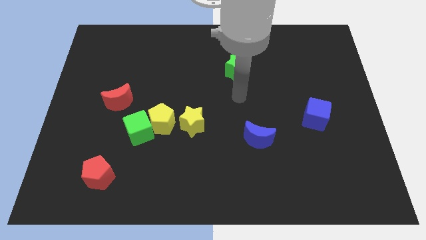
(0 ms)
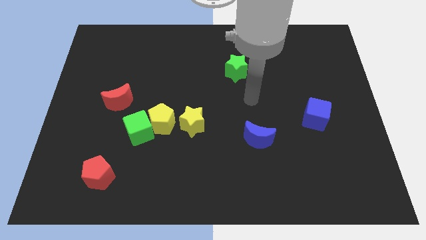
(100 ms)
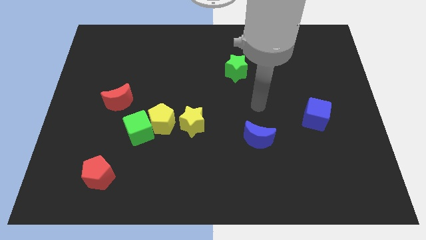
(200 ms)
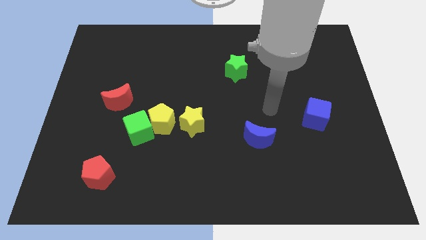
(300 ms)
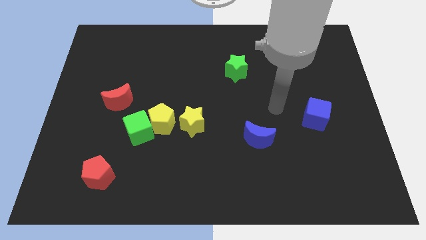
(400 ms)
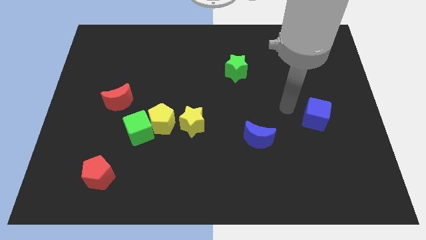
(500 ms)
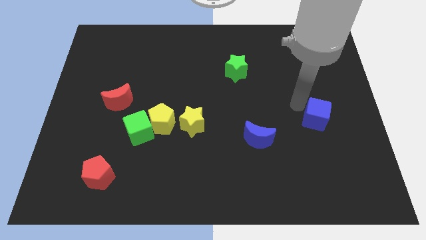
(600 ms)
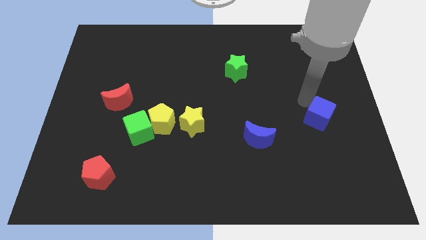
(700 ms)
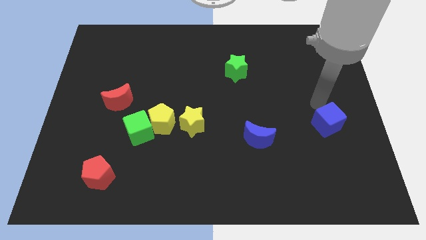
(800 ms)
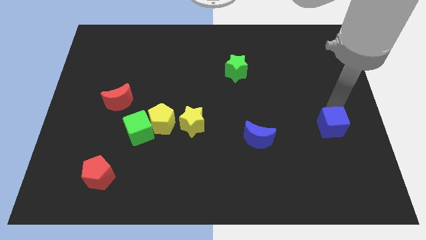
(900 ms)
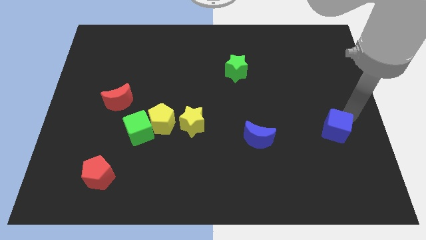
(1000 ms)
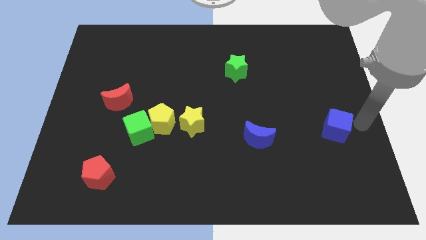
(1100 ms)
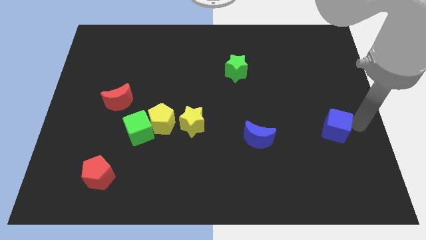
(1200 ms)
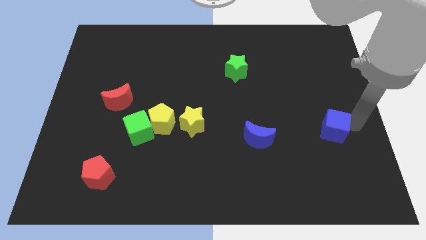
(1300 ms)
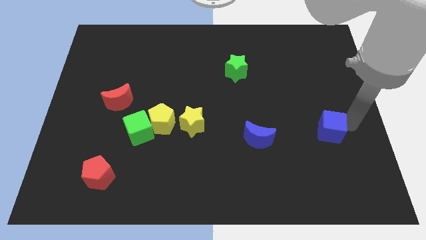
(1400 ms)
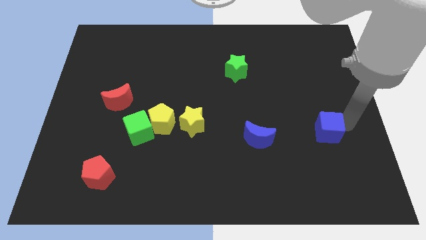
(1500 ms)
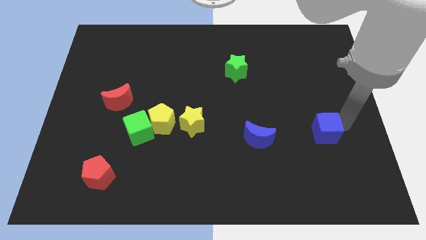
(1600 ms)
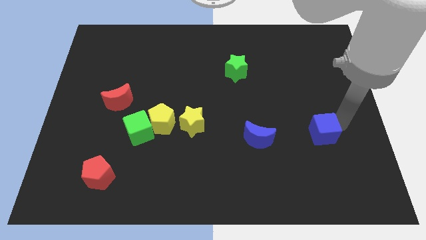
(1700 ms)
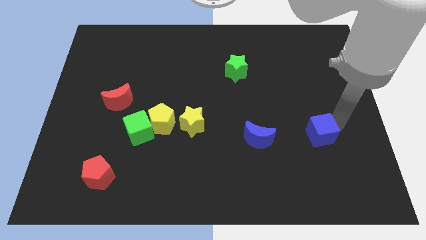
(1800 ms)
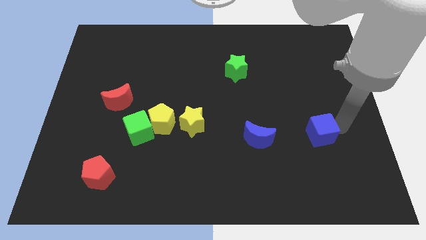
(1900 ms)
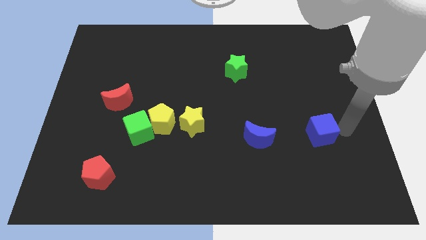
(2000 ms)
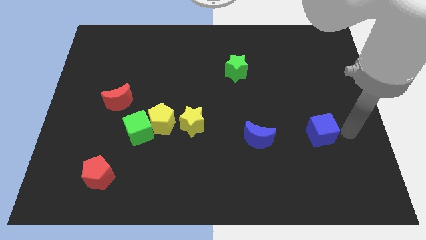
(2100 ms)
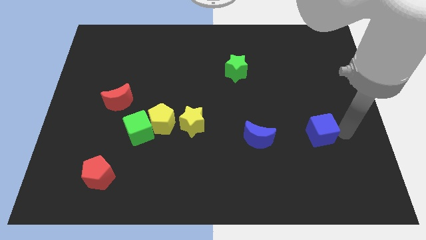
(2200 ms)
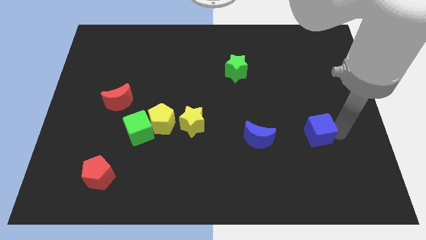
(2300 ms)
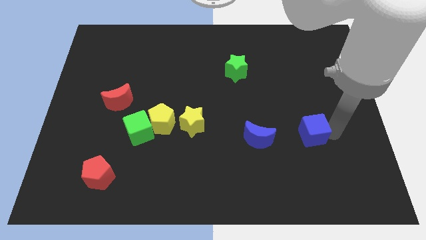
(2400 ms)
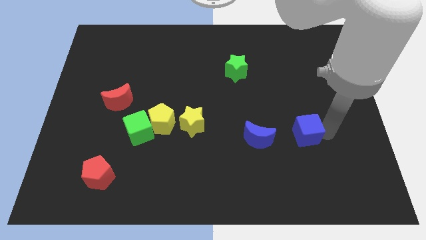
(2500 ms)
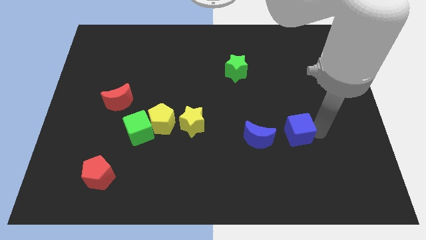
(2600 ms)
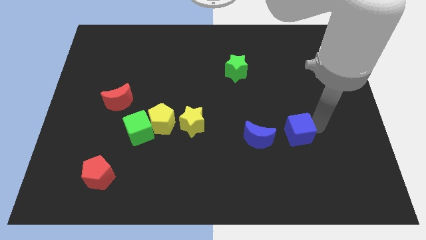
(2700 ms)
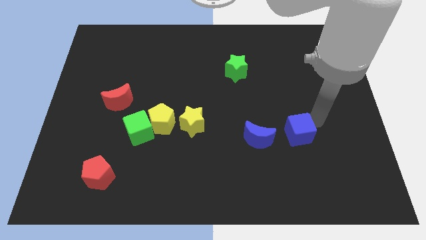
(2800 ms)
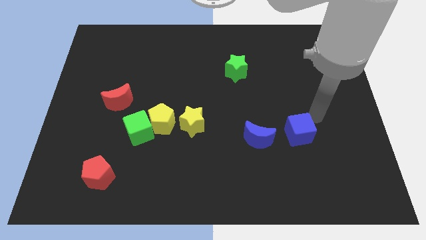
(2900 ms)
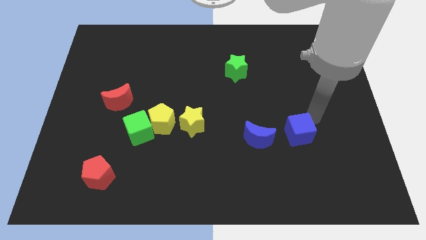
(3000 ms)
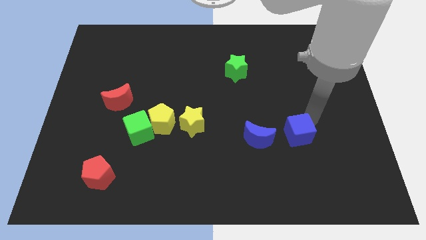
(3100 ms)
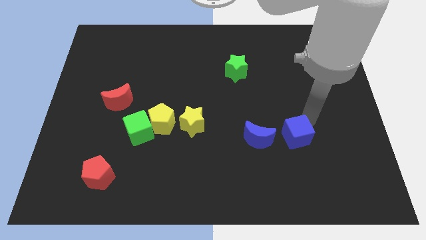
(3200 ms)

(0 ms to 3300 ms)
push the blue cube diagonally down and left a bit

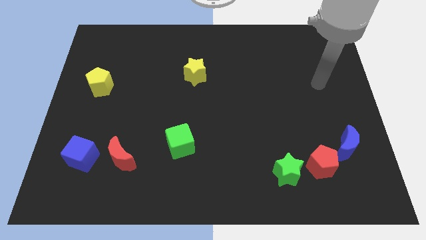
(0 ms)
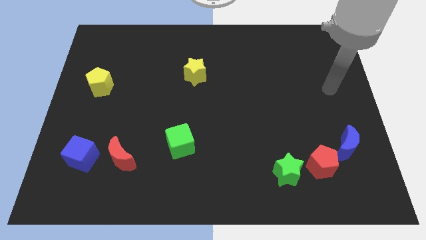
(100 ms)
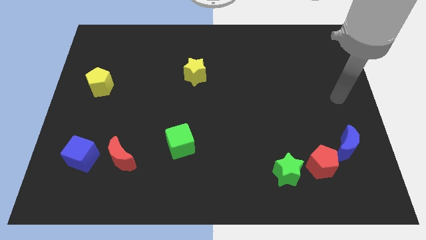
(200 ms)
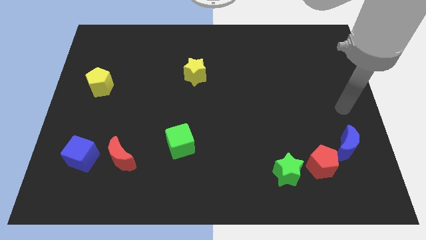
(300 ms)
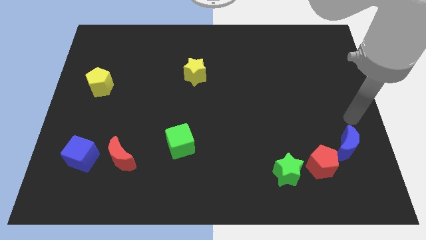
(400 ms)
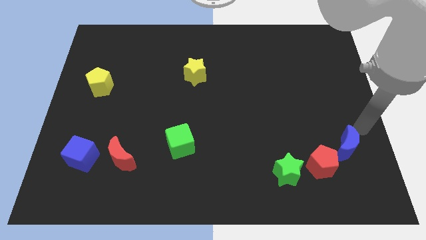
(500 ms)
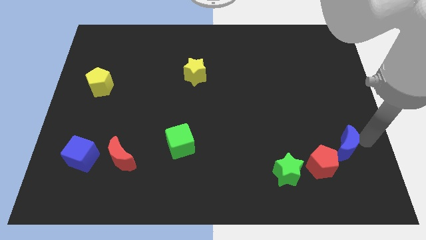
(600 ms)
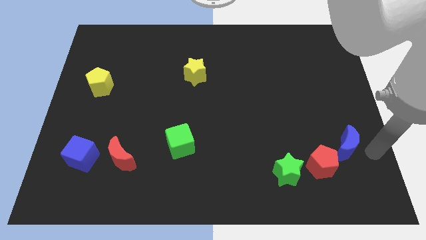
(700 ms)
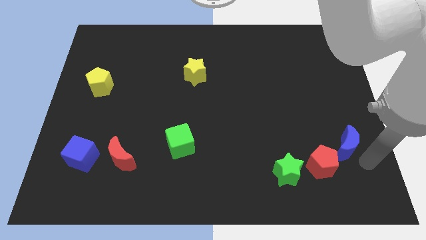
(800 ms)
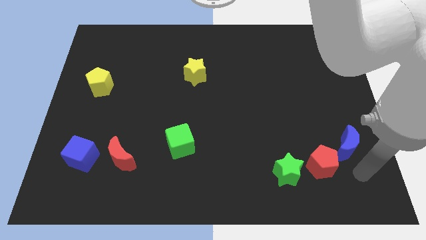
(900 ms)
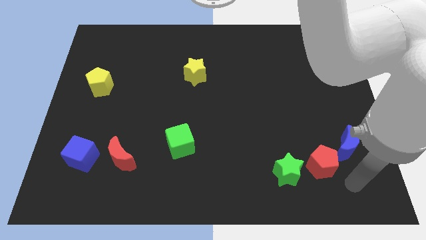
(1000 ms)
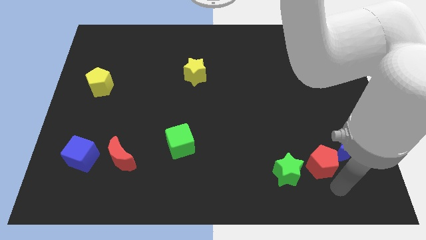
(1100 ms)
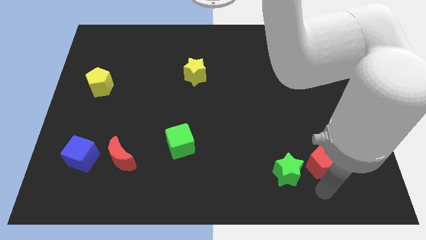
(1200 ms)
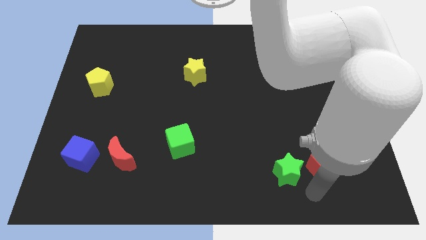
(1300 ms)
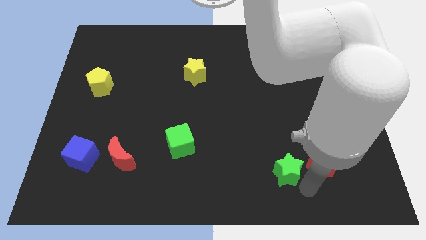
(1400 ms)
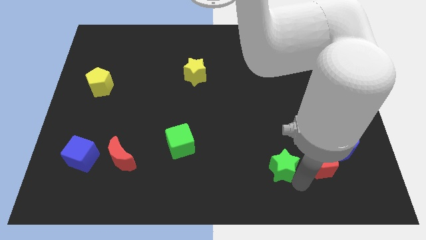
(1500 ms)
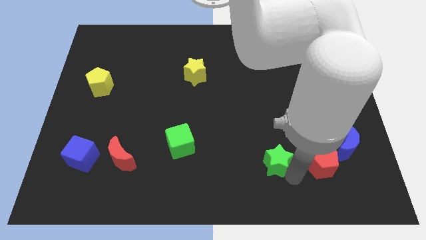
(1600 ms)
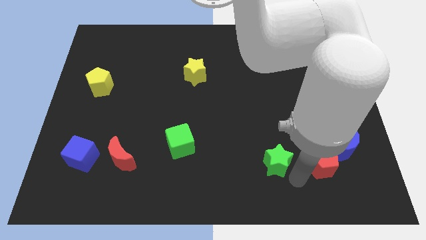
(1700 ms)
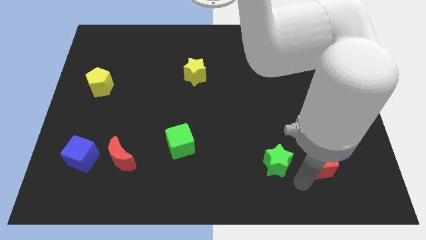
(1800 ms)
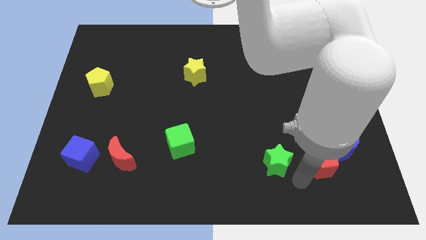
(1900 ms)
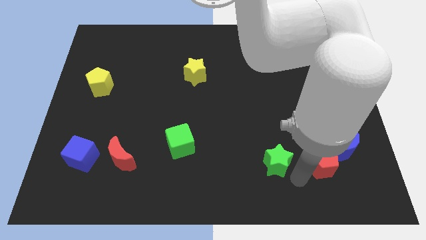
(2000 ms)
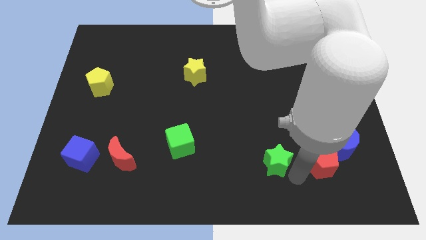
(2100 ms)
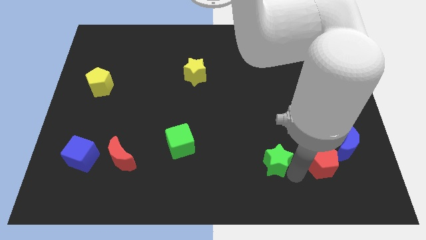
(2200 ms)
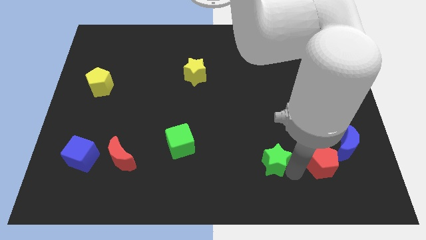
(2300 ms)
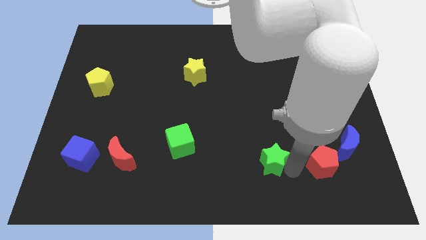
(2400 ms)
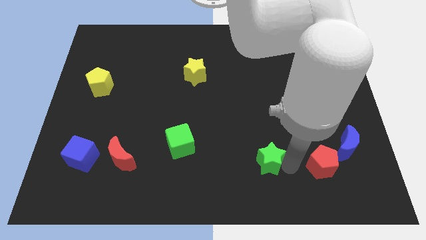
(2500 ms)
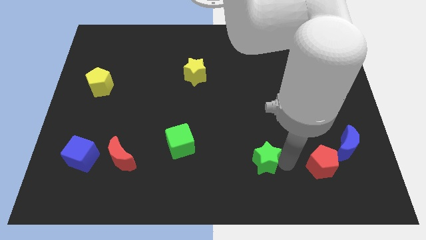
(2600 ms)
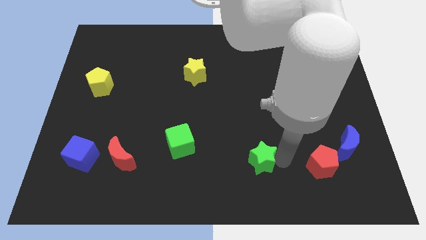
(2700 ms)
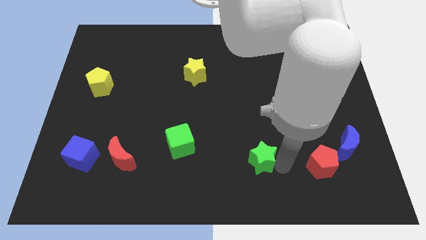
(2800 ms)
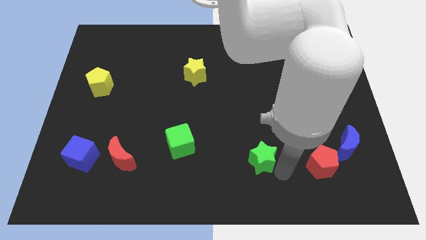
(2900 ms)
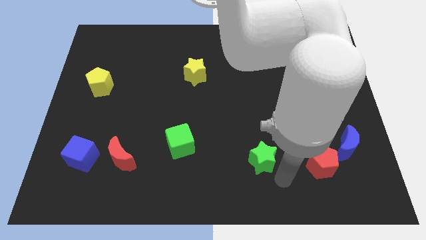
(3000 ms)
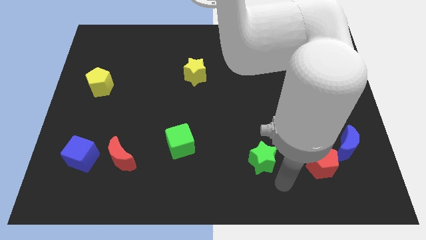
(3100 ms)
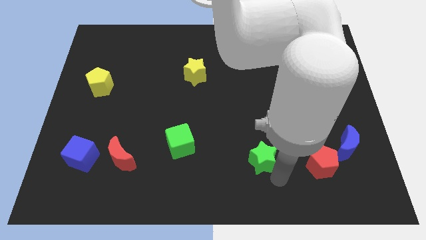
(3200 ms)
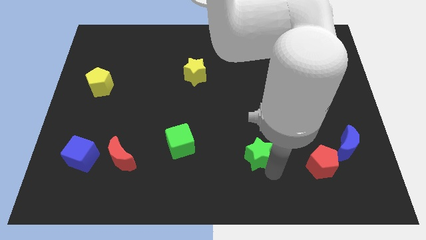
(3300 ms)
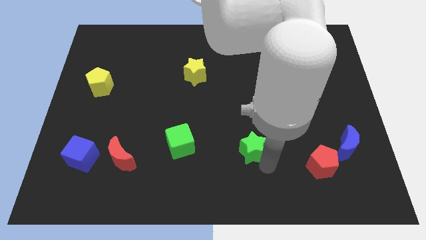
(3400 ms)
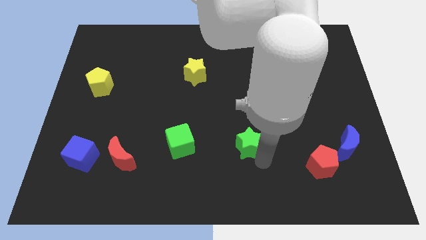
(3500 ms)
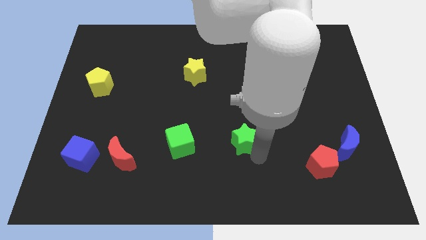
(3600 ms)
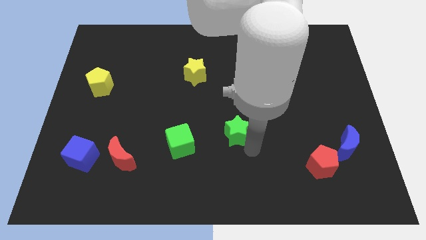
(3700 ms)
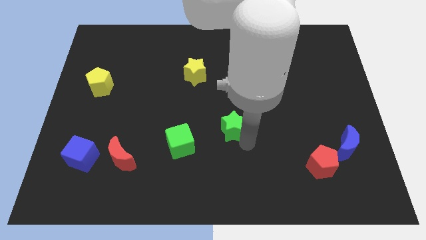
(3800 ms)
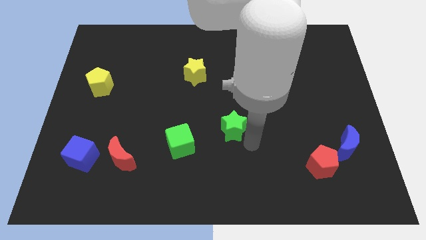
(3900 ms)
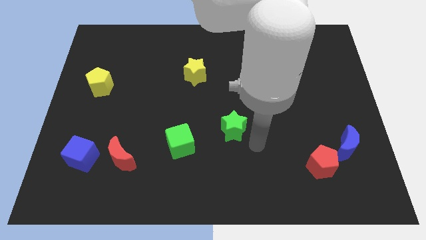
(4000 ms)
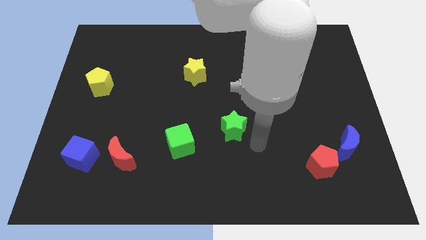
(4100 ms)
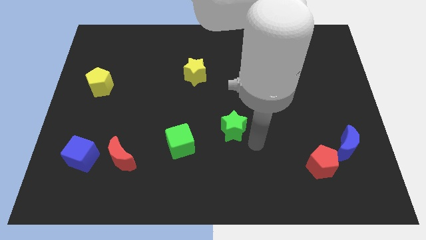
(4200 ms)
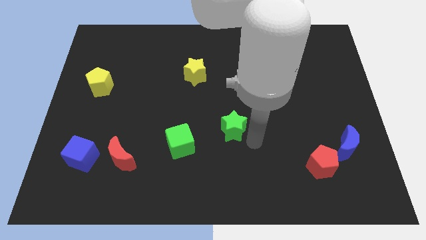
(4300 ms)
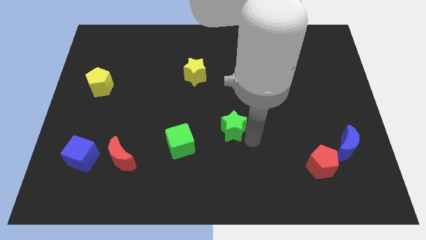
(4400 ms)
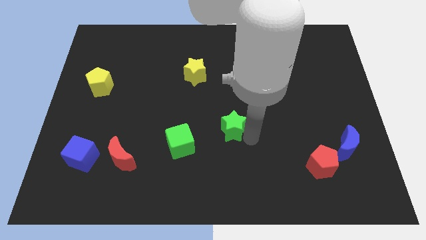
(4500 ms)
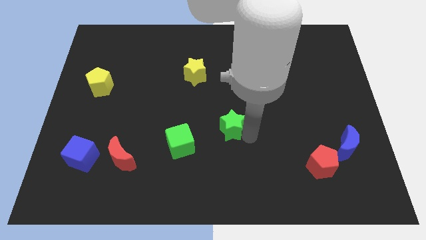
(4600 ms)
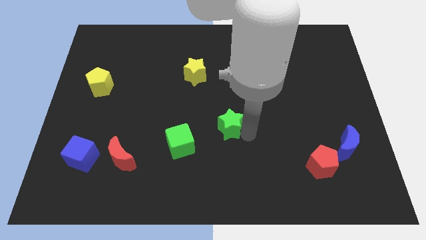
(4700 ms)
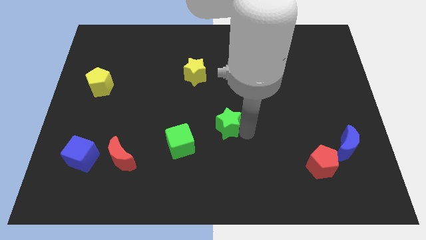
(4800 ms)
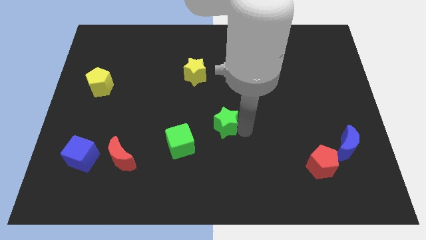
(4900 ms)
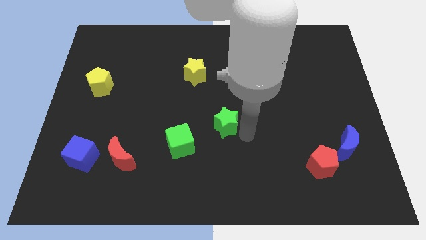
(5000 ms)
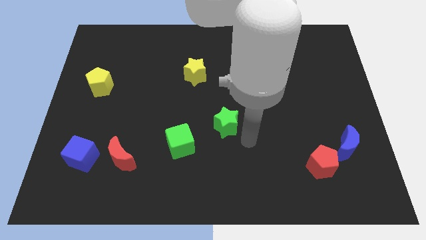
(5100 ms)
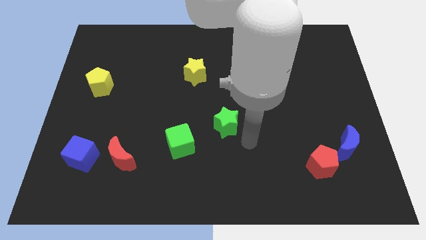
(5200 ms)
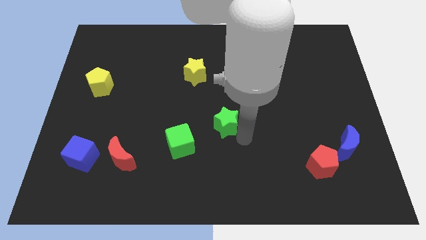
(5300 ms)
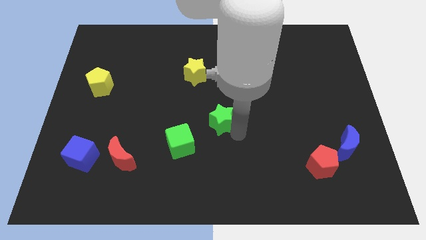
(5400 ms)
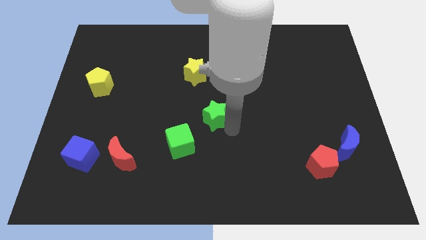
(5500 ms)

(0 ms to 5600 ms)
move the green star upwards and then to the left
